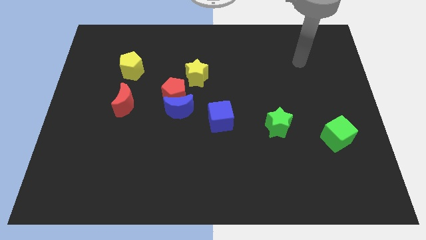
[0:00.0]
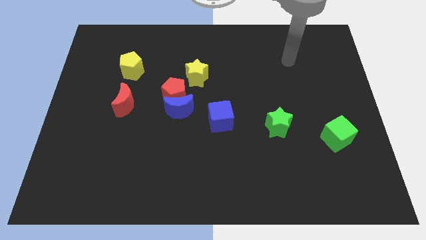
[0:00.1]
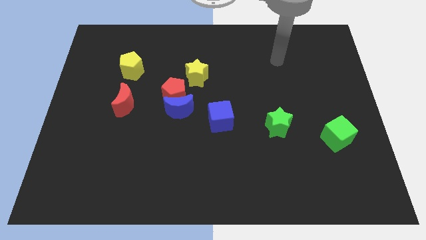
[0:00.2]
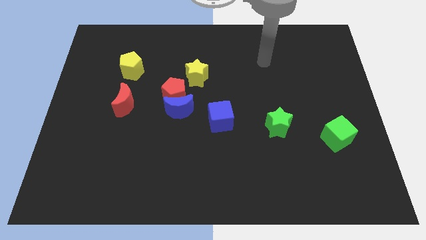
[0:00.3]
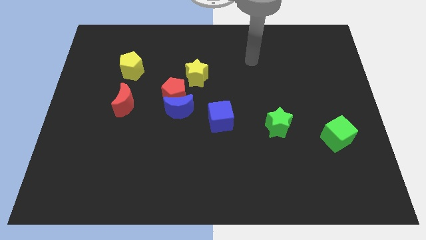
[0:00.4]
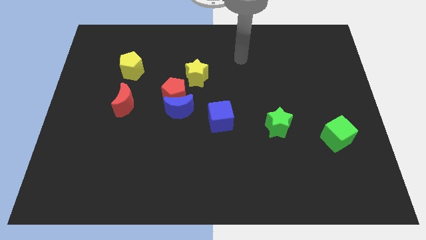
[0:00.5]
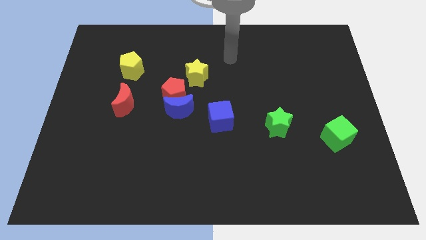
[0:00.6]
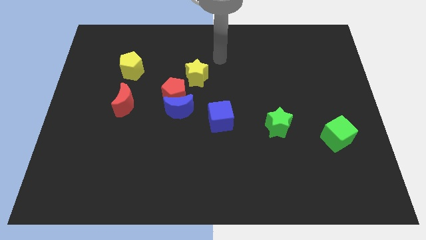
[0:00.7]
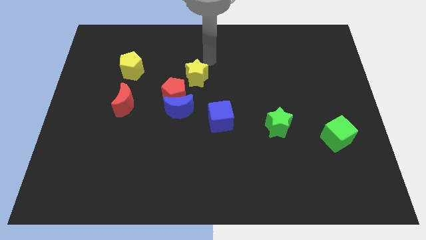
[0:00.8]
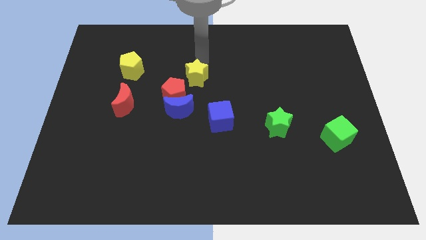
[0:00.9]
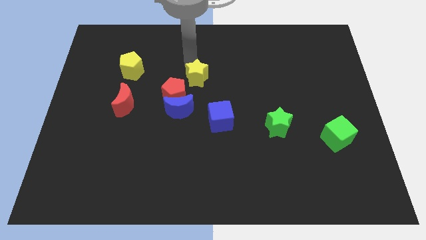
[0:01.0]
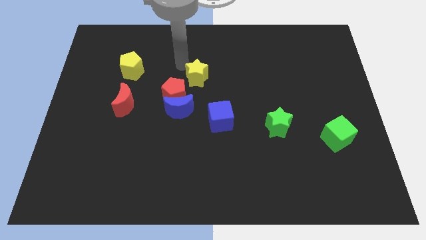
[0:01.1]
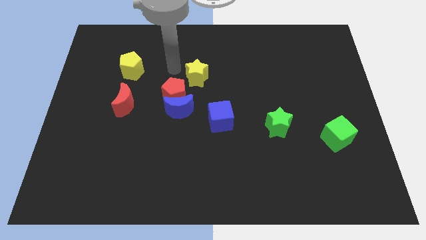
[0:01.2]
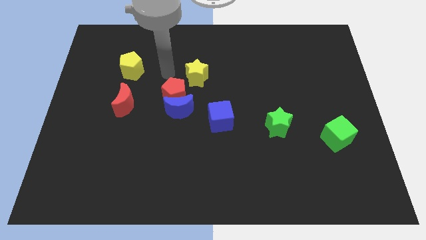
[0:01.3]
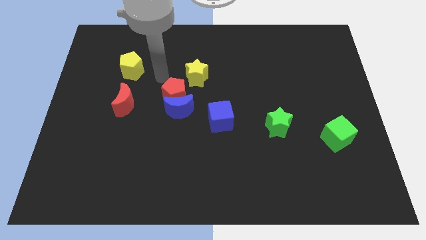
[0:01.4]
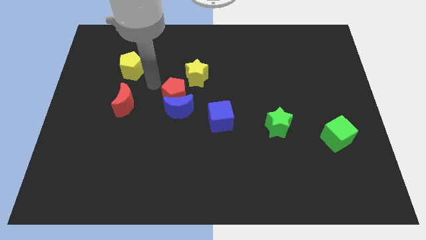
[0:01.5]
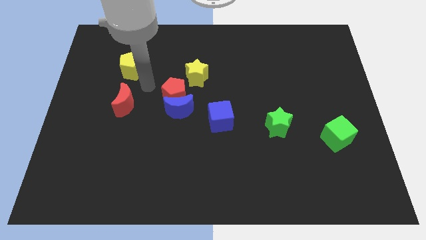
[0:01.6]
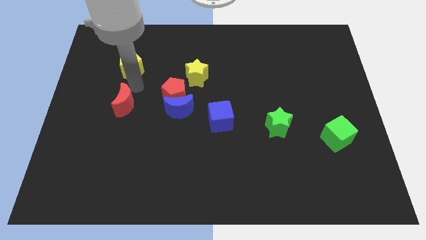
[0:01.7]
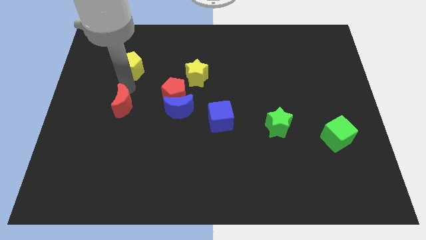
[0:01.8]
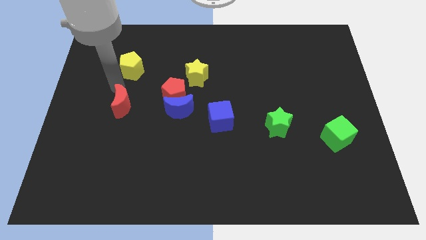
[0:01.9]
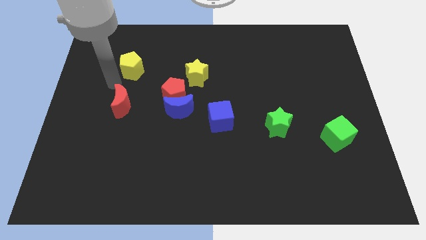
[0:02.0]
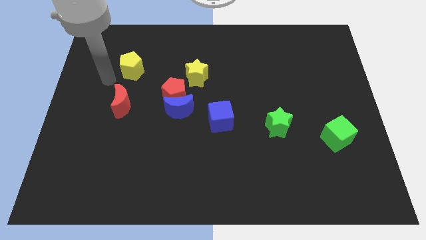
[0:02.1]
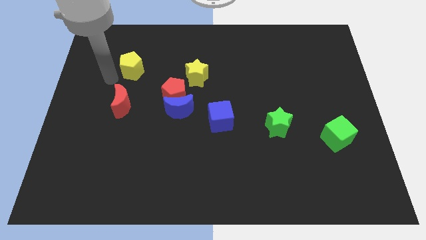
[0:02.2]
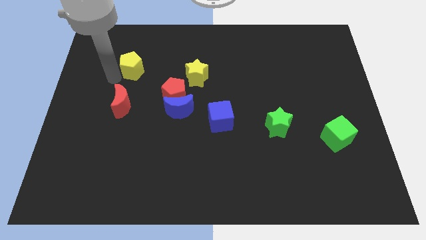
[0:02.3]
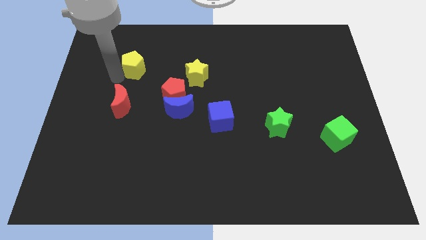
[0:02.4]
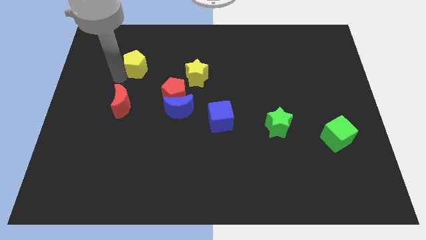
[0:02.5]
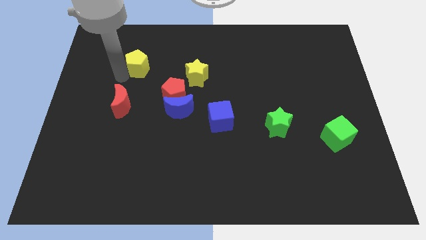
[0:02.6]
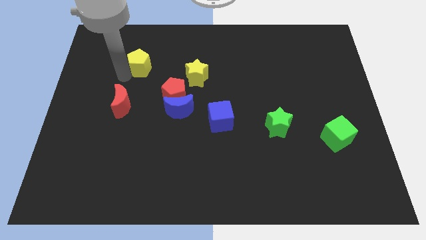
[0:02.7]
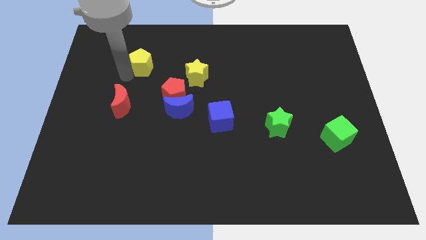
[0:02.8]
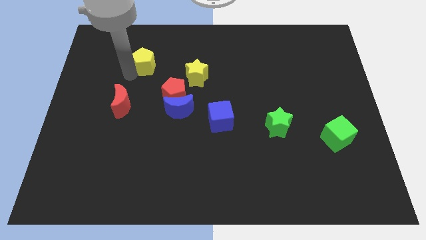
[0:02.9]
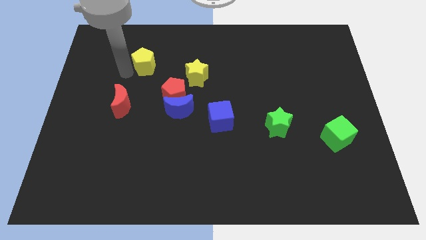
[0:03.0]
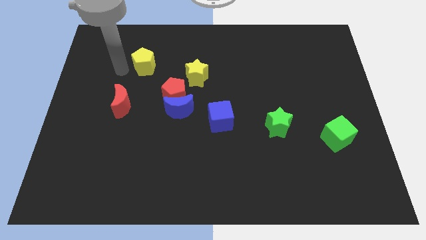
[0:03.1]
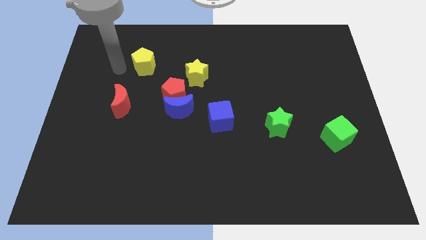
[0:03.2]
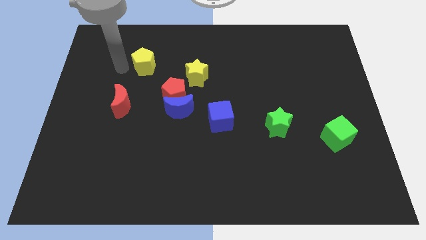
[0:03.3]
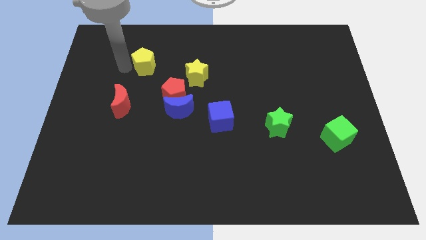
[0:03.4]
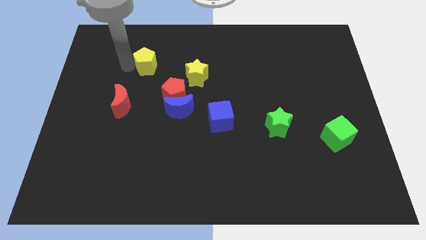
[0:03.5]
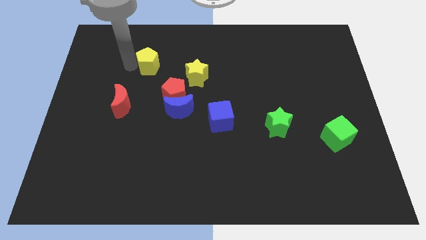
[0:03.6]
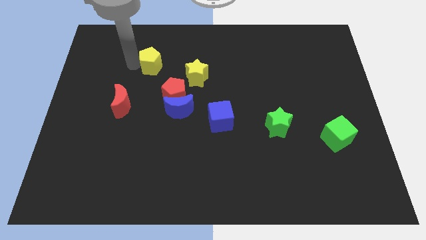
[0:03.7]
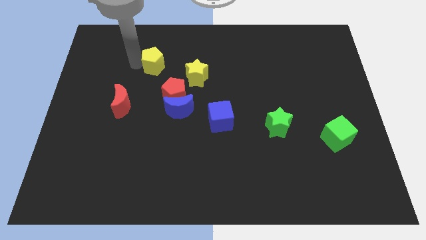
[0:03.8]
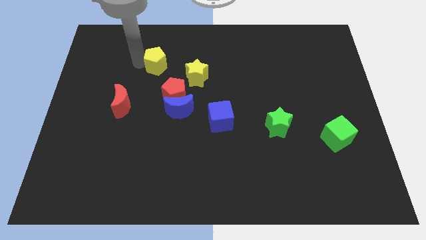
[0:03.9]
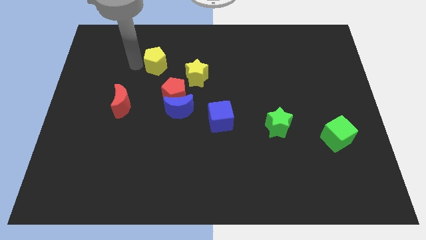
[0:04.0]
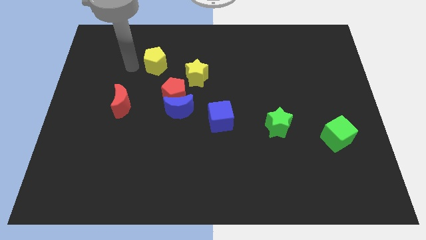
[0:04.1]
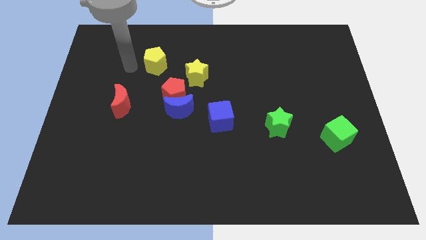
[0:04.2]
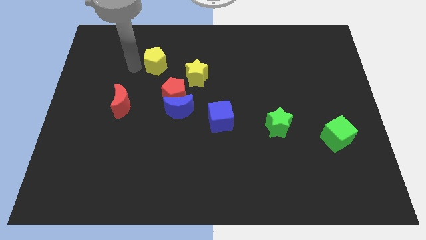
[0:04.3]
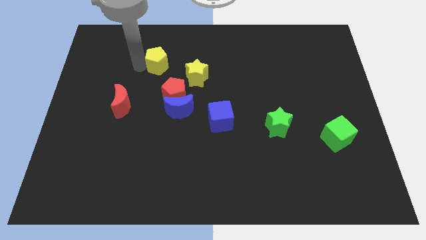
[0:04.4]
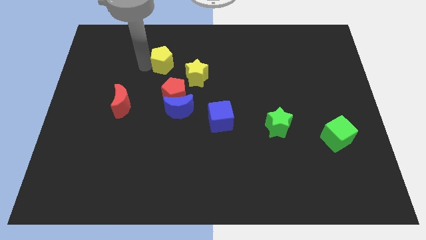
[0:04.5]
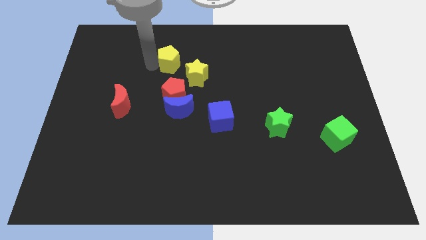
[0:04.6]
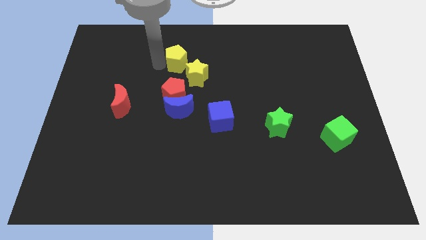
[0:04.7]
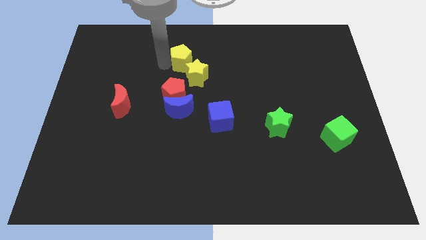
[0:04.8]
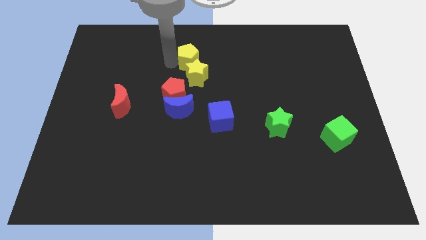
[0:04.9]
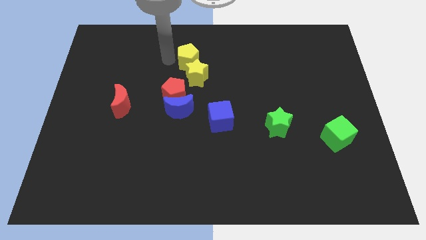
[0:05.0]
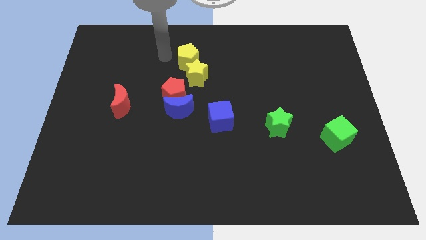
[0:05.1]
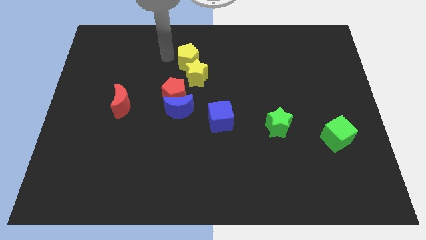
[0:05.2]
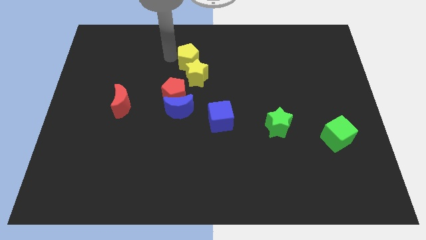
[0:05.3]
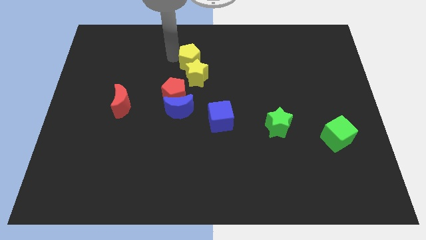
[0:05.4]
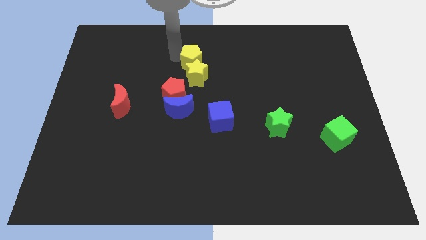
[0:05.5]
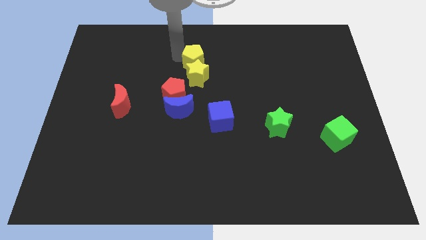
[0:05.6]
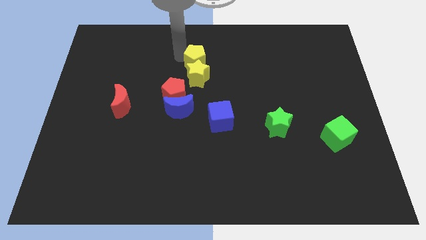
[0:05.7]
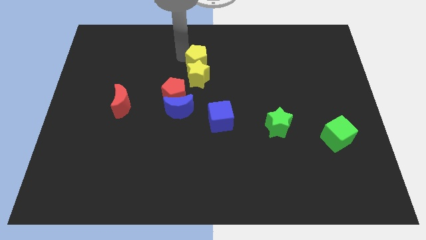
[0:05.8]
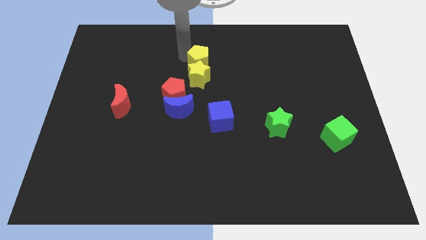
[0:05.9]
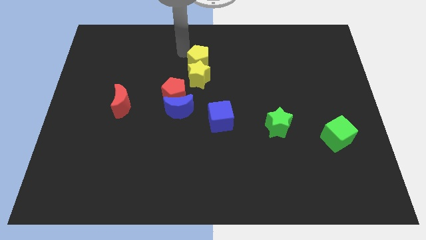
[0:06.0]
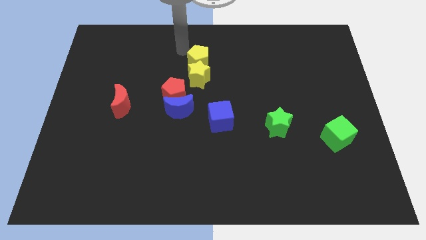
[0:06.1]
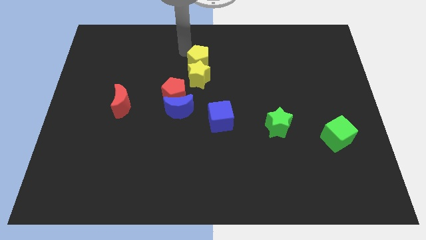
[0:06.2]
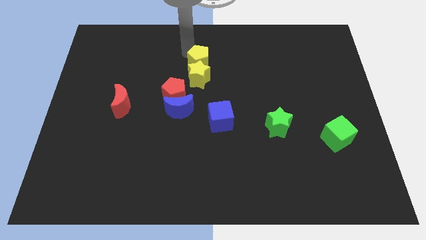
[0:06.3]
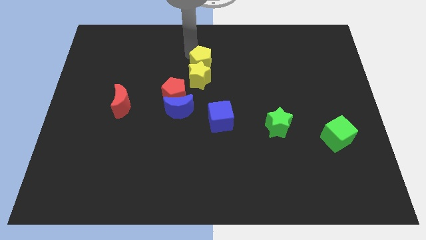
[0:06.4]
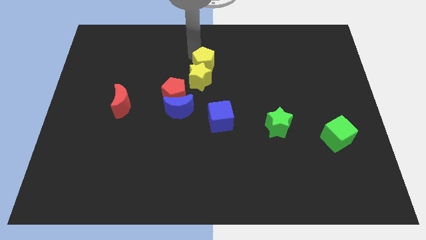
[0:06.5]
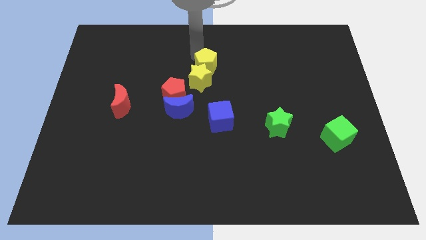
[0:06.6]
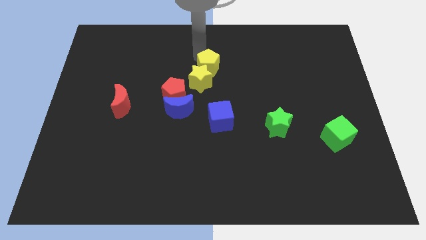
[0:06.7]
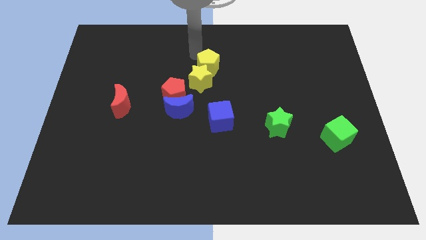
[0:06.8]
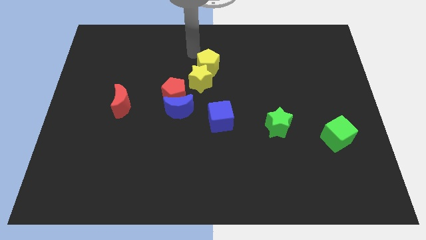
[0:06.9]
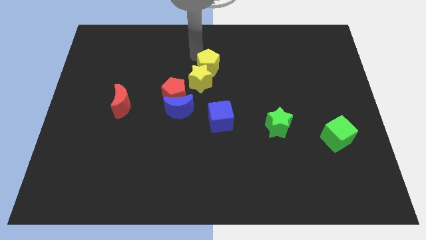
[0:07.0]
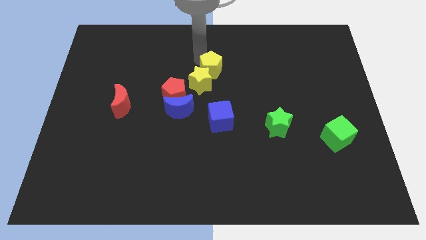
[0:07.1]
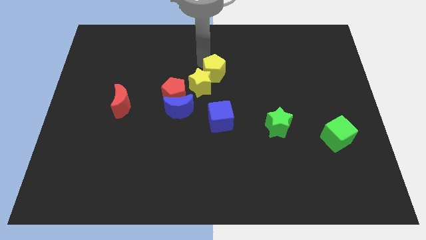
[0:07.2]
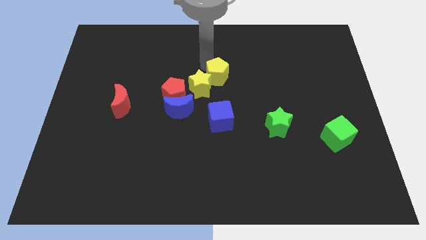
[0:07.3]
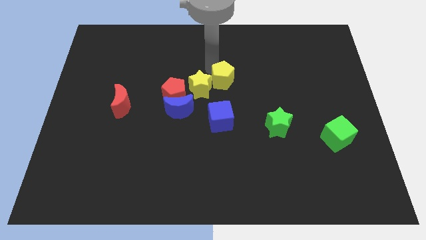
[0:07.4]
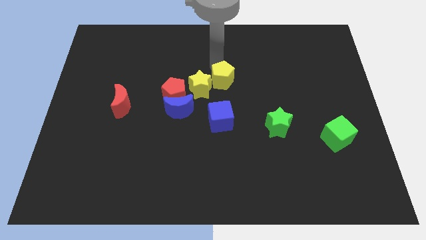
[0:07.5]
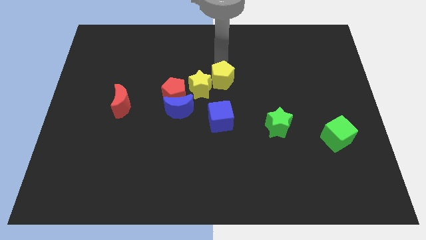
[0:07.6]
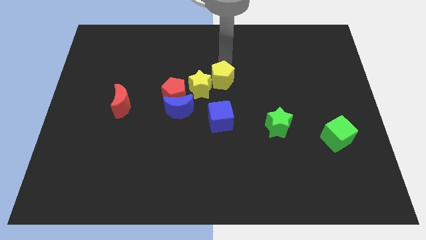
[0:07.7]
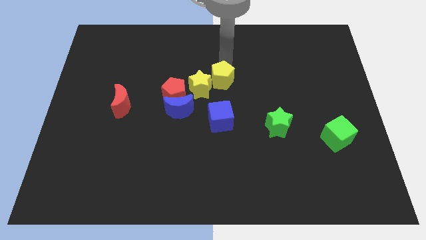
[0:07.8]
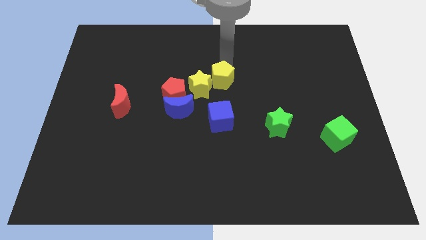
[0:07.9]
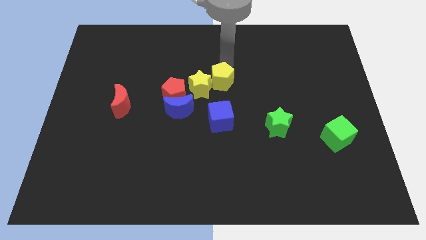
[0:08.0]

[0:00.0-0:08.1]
put the yellow pentagon to the right side of the red pentagon
